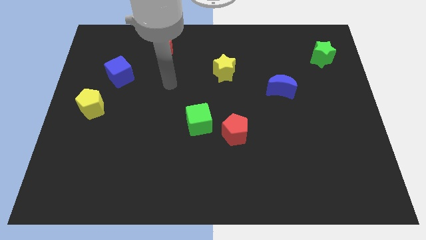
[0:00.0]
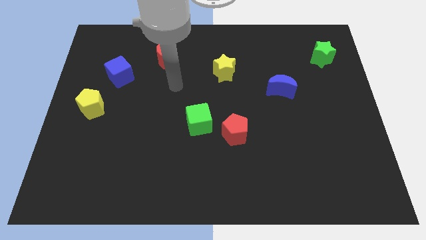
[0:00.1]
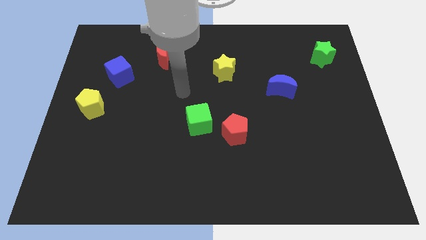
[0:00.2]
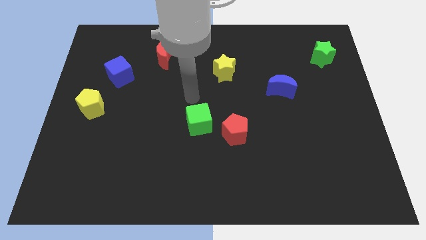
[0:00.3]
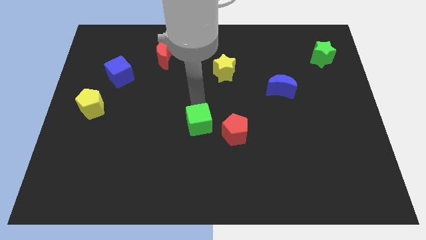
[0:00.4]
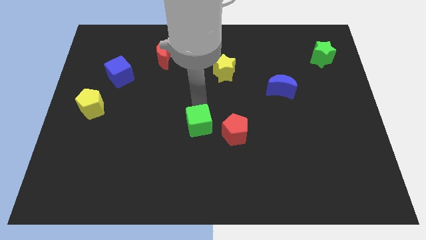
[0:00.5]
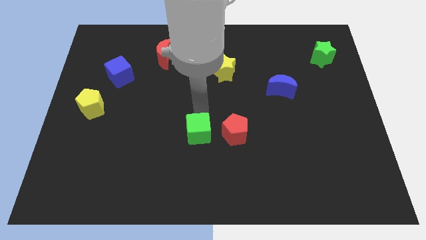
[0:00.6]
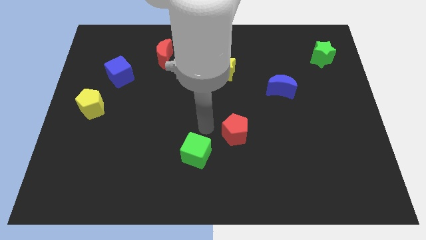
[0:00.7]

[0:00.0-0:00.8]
pull the red pentagon apart from the green cube

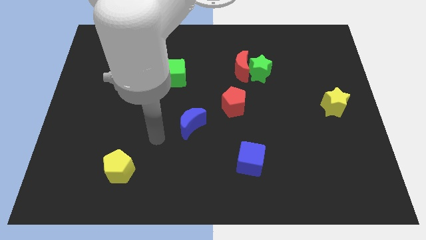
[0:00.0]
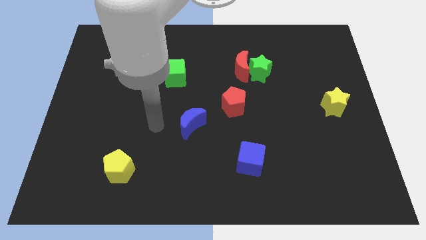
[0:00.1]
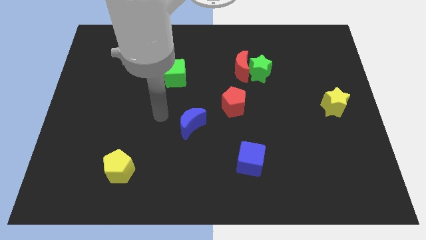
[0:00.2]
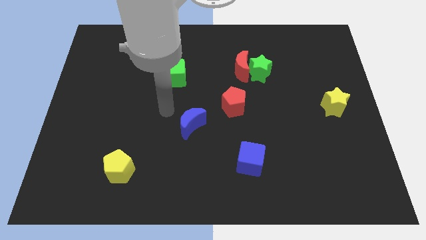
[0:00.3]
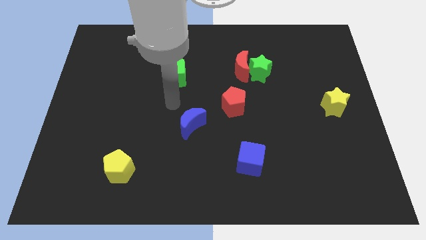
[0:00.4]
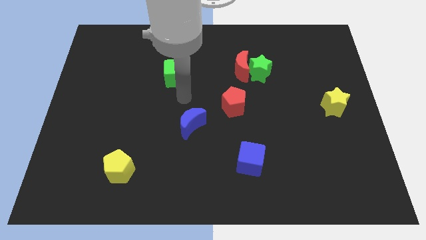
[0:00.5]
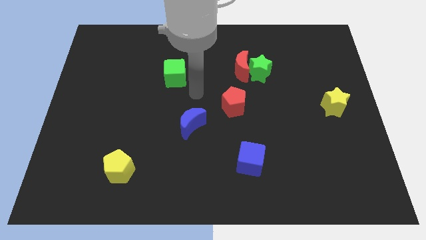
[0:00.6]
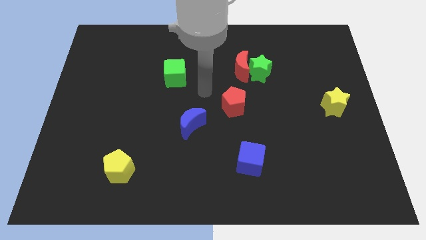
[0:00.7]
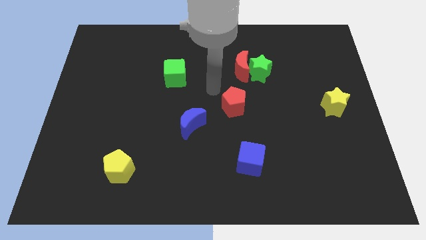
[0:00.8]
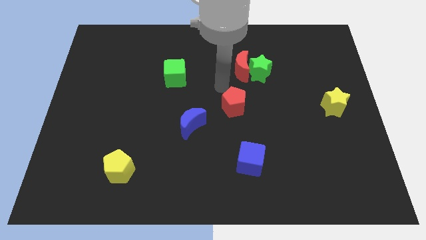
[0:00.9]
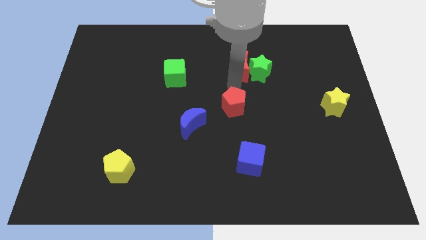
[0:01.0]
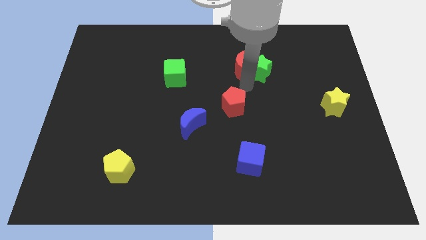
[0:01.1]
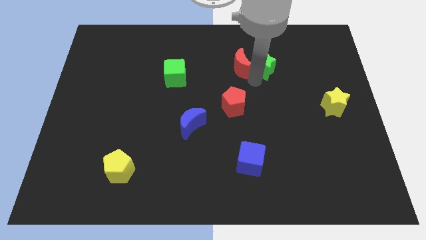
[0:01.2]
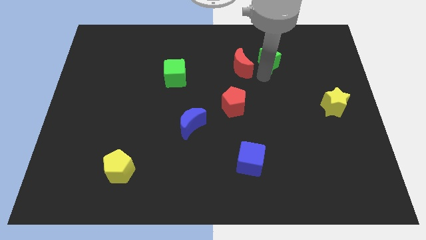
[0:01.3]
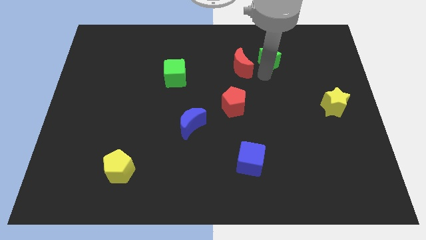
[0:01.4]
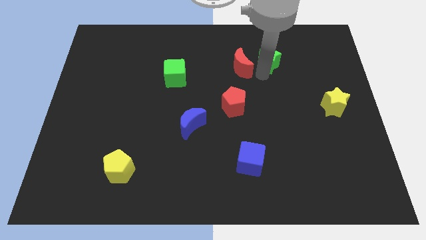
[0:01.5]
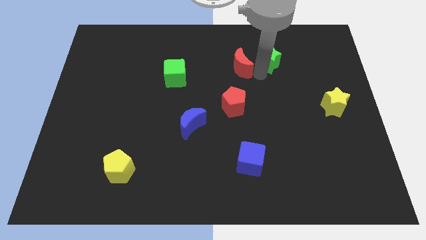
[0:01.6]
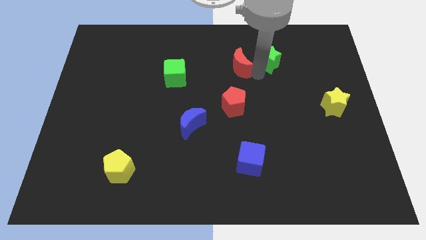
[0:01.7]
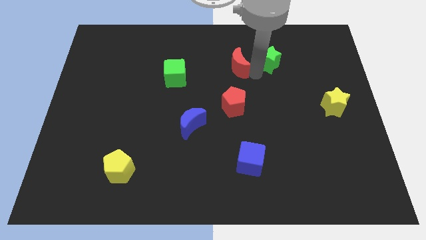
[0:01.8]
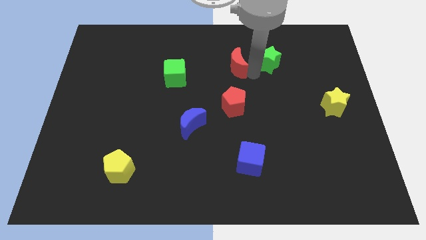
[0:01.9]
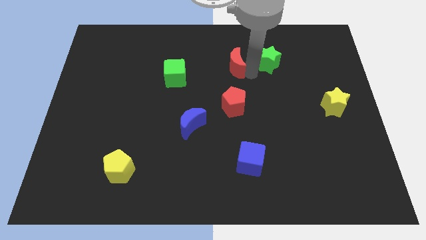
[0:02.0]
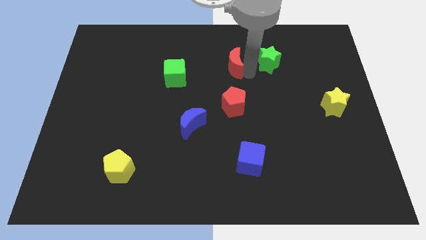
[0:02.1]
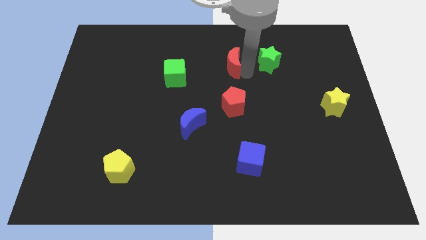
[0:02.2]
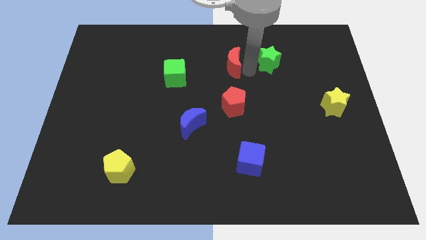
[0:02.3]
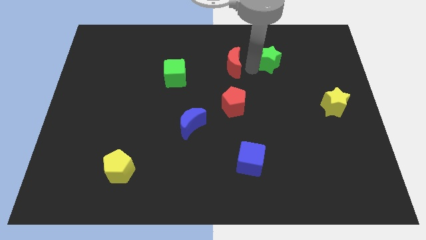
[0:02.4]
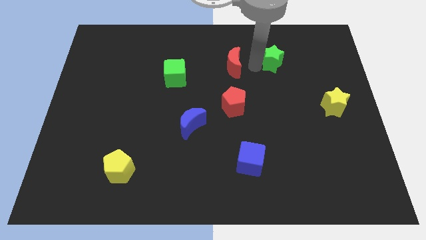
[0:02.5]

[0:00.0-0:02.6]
move the red moon away from the green star

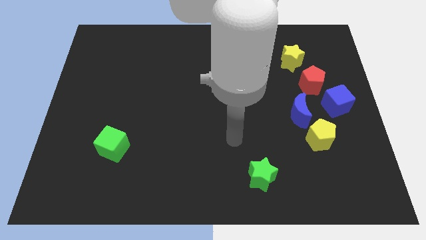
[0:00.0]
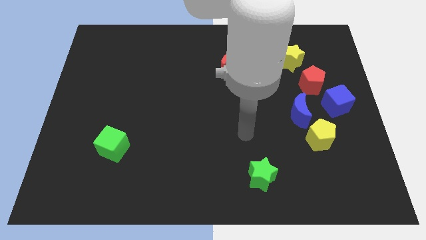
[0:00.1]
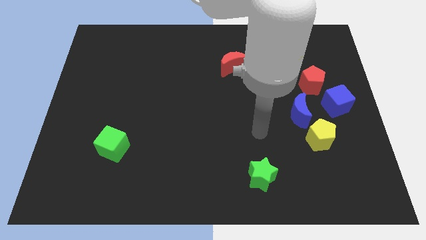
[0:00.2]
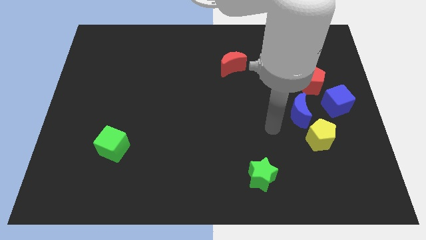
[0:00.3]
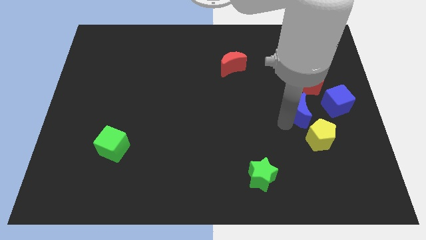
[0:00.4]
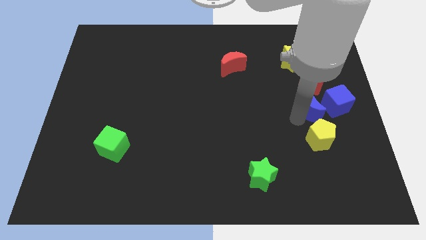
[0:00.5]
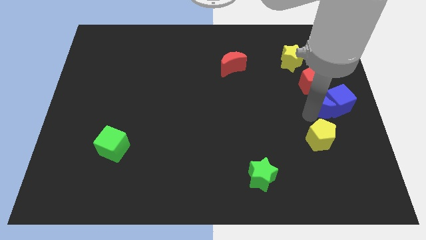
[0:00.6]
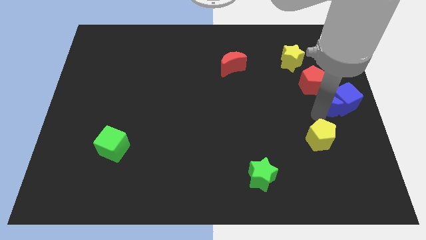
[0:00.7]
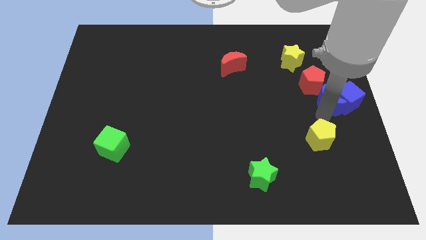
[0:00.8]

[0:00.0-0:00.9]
move the yellow pentagon away from the blue moon

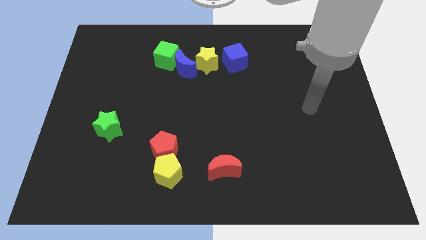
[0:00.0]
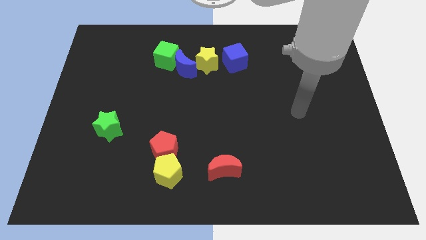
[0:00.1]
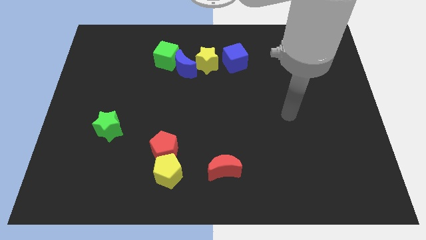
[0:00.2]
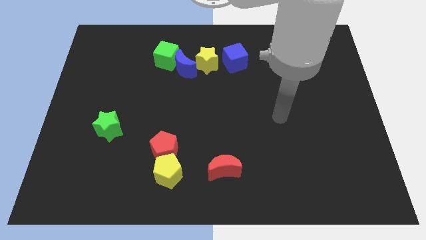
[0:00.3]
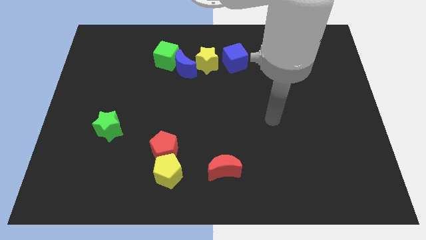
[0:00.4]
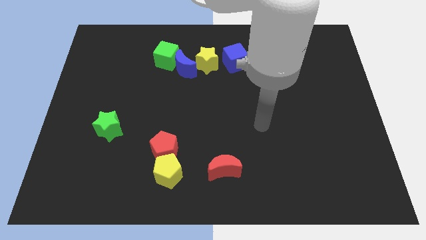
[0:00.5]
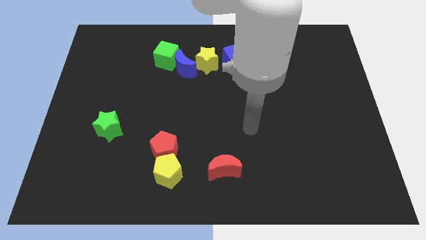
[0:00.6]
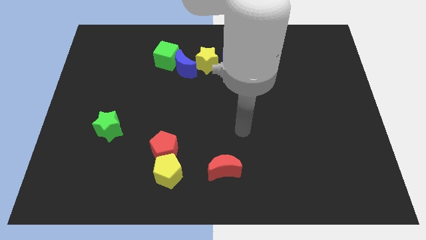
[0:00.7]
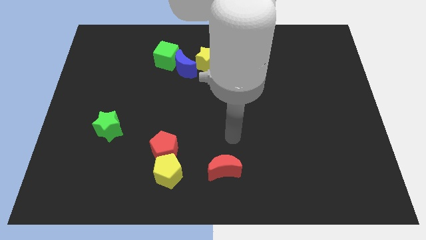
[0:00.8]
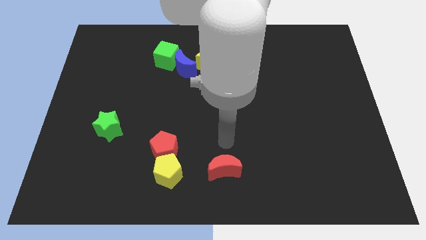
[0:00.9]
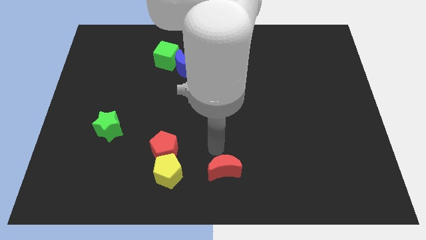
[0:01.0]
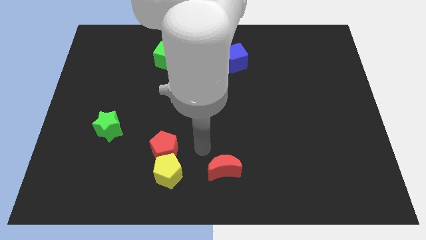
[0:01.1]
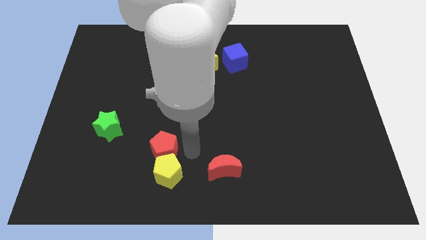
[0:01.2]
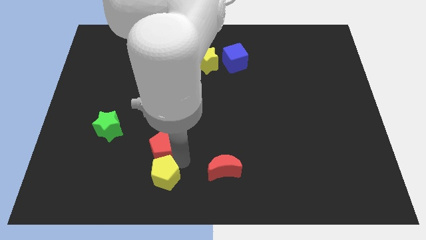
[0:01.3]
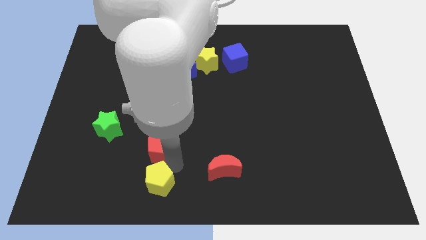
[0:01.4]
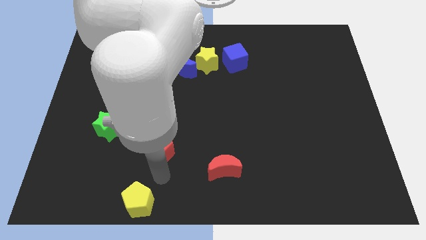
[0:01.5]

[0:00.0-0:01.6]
move the red pentagon away from the yellow pentagon

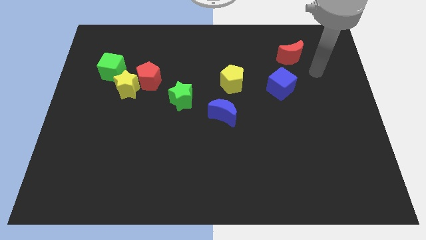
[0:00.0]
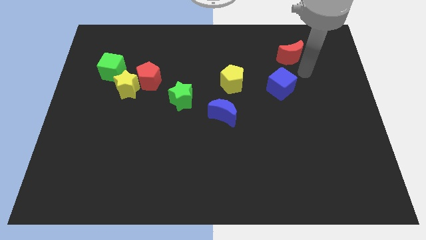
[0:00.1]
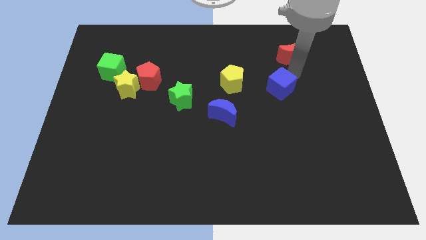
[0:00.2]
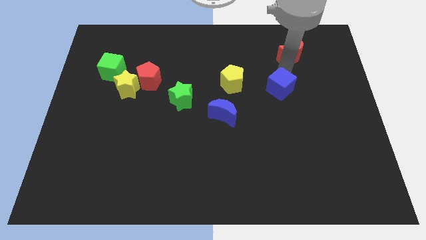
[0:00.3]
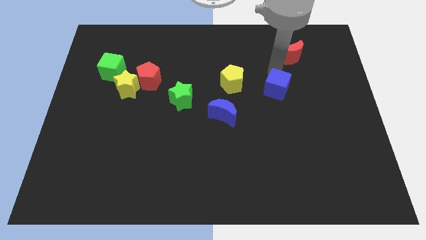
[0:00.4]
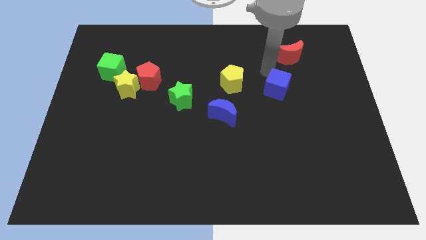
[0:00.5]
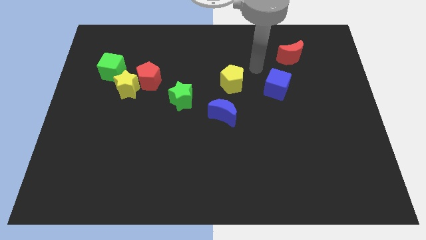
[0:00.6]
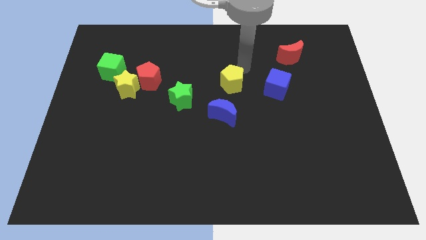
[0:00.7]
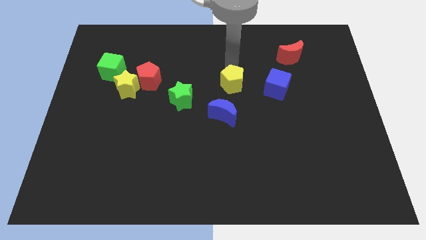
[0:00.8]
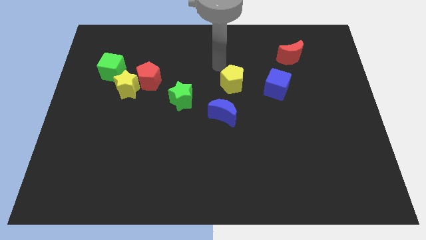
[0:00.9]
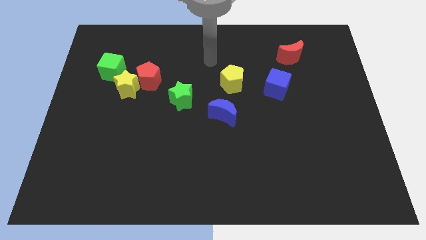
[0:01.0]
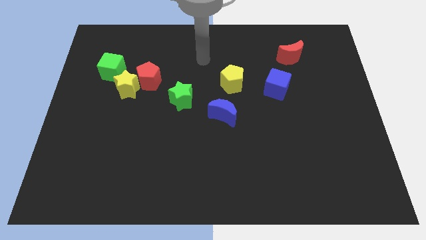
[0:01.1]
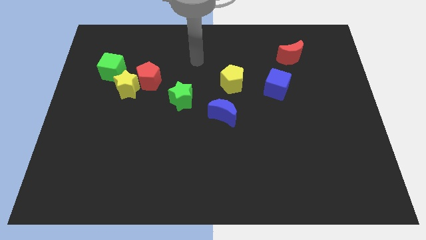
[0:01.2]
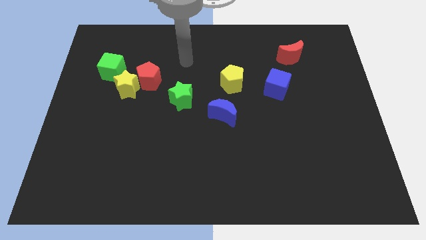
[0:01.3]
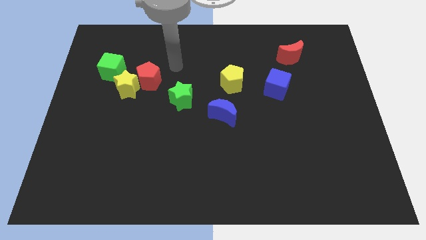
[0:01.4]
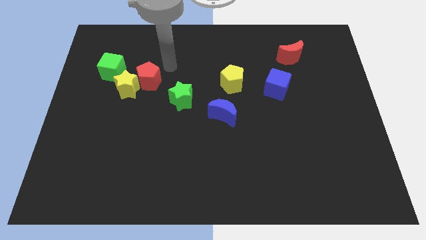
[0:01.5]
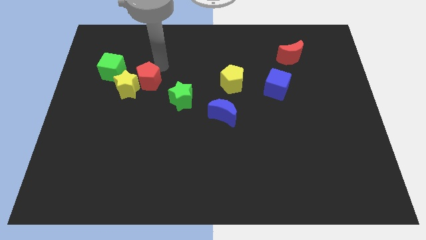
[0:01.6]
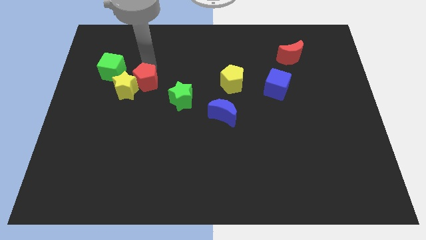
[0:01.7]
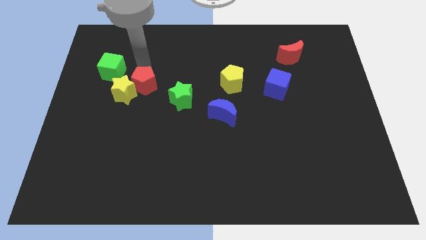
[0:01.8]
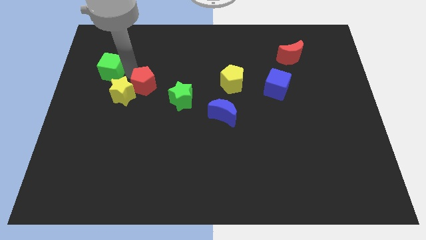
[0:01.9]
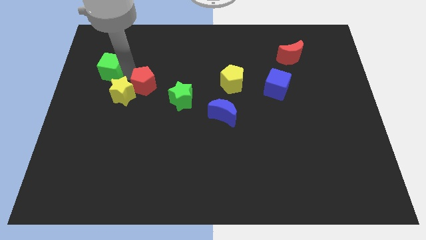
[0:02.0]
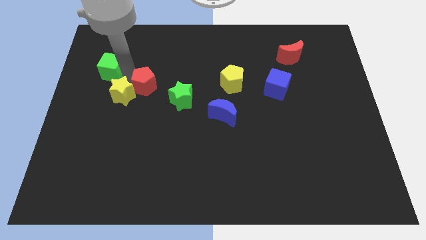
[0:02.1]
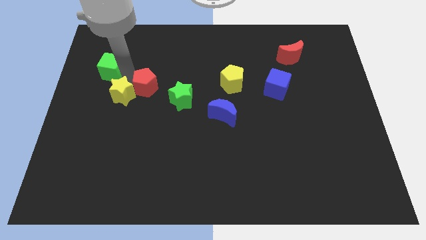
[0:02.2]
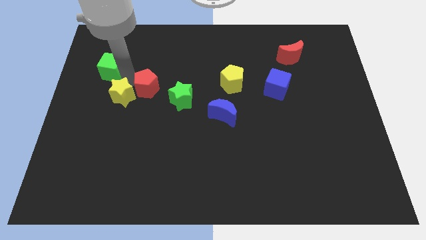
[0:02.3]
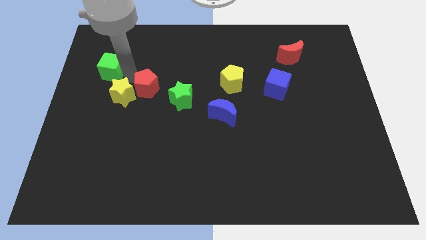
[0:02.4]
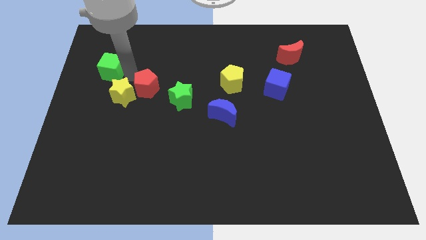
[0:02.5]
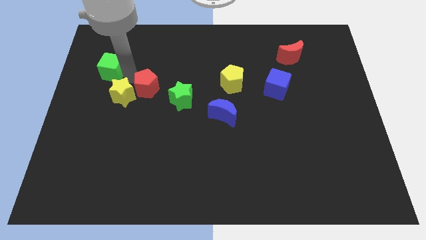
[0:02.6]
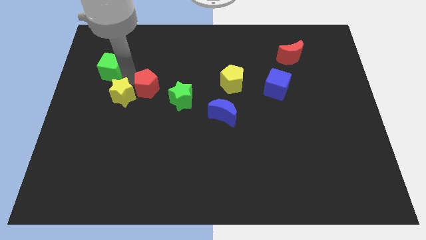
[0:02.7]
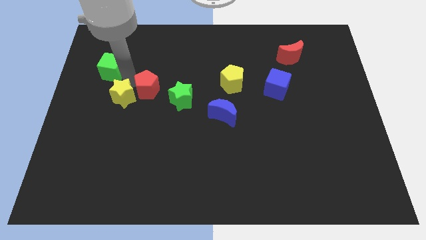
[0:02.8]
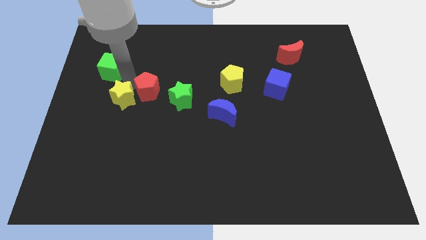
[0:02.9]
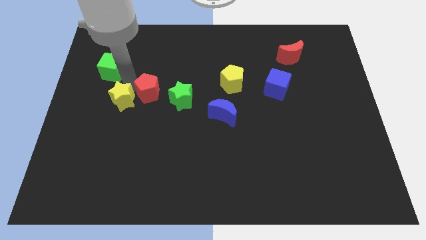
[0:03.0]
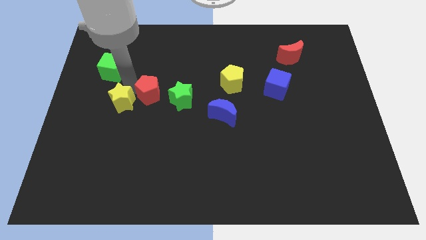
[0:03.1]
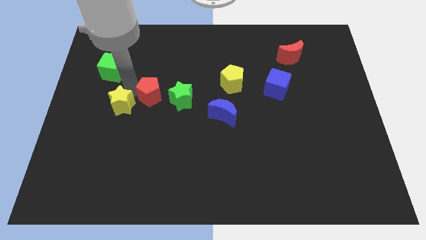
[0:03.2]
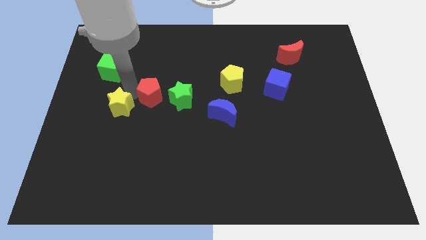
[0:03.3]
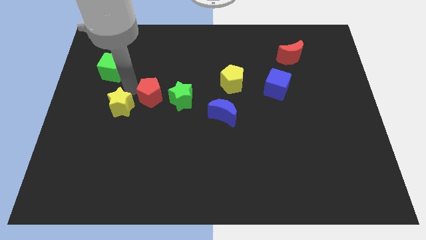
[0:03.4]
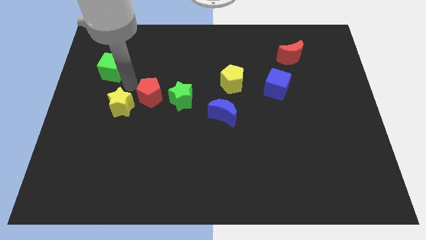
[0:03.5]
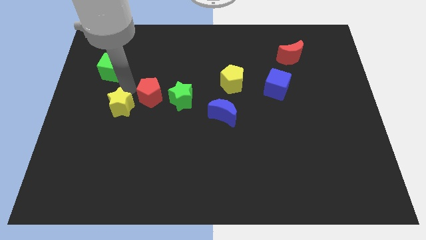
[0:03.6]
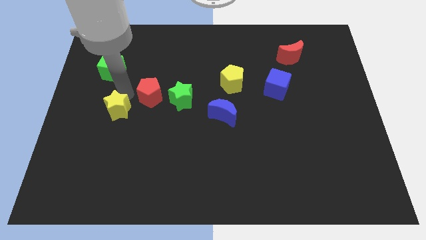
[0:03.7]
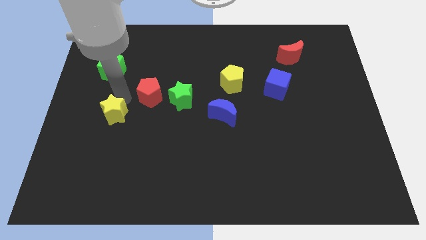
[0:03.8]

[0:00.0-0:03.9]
move the yellow star away from the red pentagon and green cube
